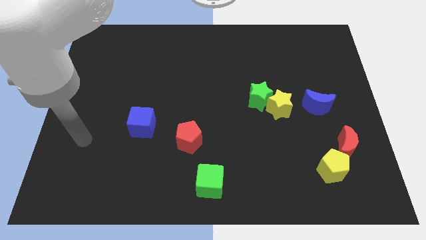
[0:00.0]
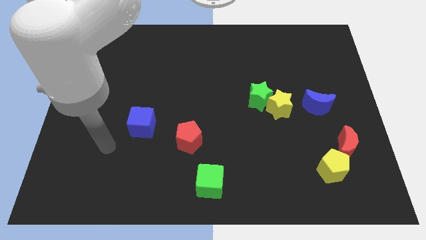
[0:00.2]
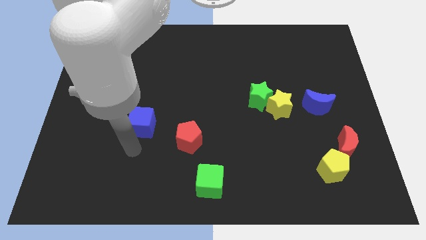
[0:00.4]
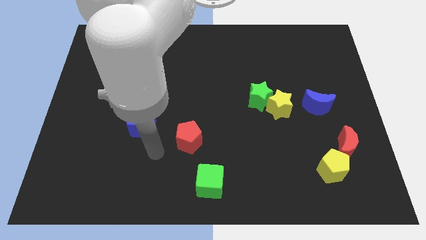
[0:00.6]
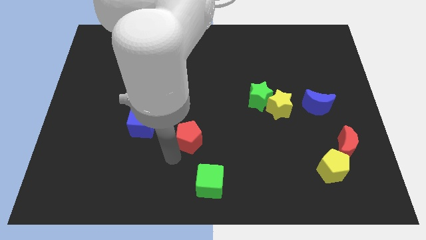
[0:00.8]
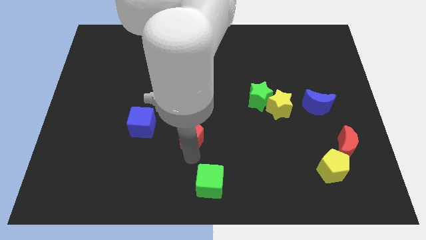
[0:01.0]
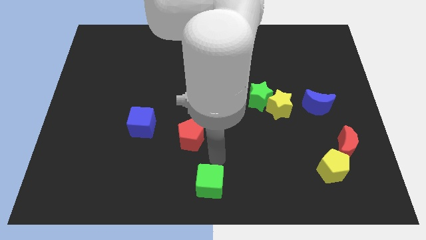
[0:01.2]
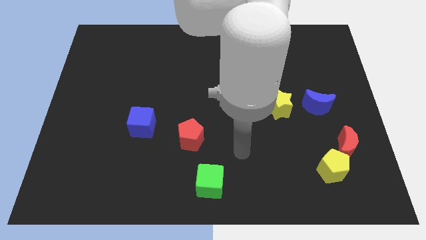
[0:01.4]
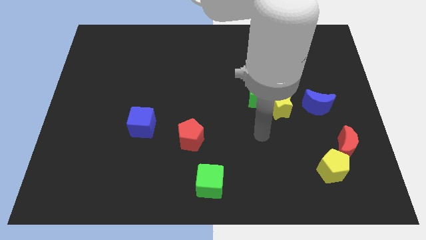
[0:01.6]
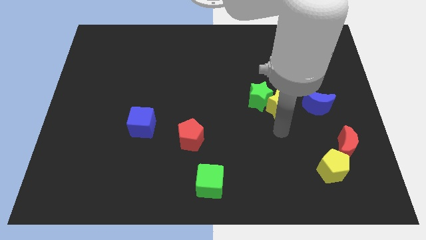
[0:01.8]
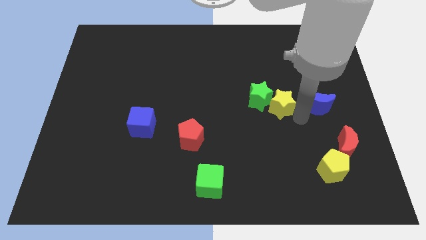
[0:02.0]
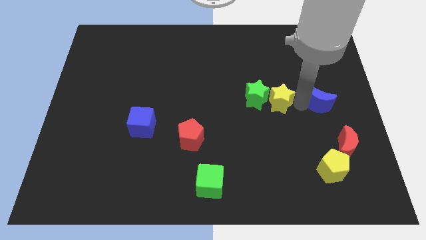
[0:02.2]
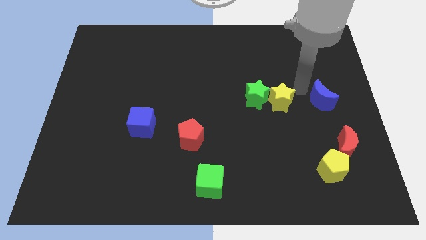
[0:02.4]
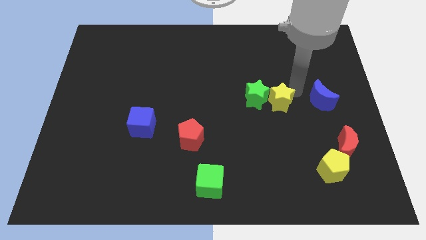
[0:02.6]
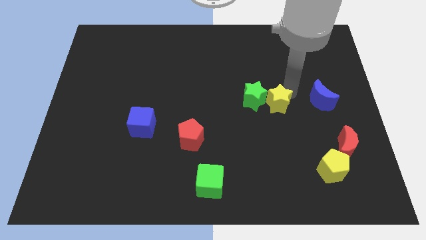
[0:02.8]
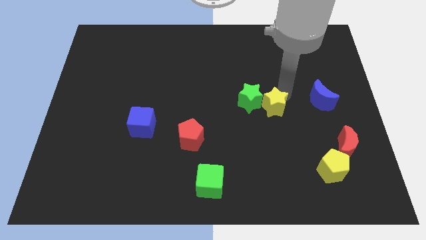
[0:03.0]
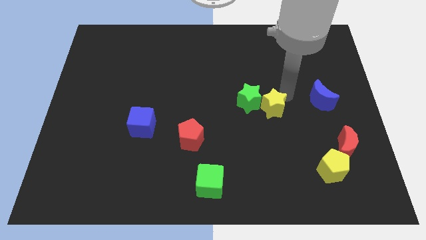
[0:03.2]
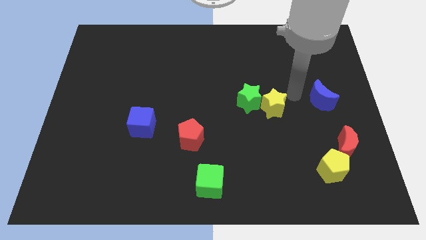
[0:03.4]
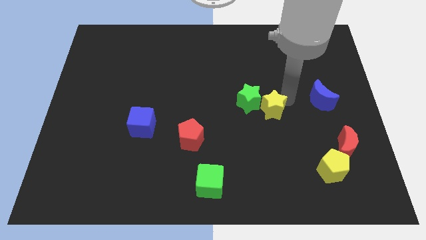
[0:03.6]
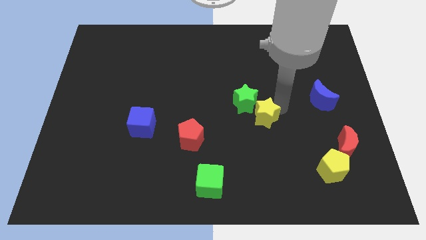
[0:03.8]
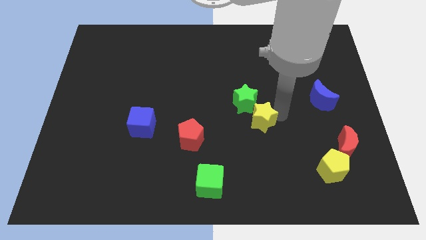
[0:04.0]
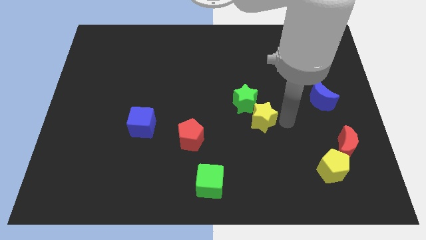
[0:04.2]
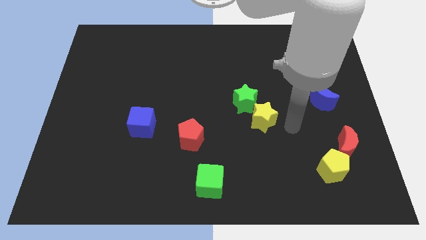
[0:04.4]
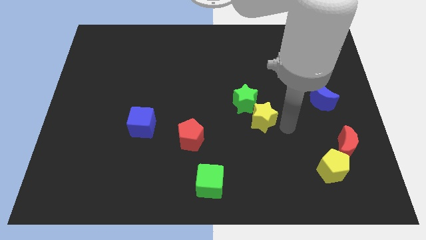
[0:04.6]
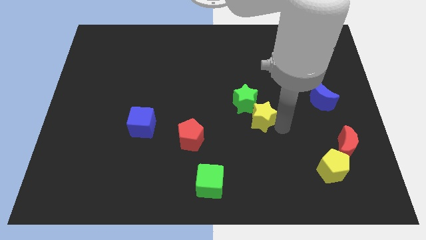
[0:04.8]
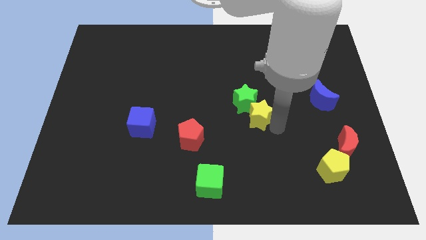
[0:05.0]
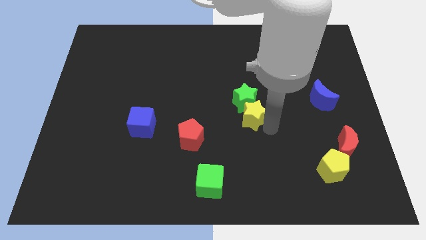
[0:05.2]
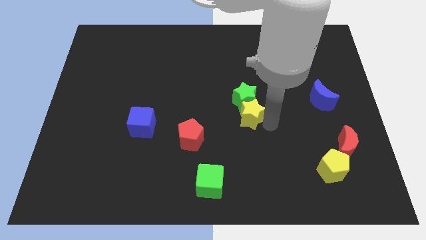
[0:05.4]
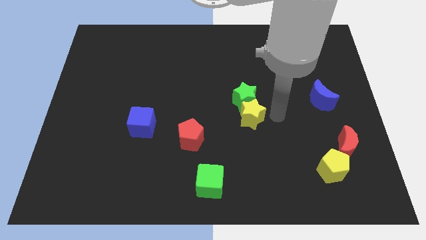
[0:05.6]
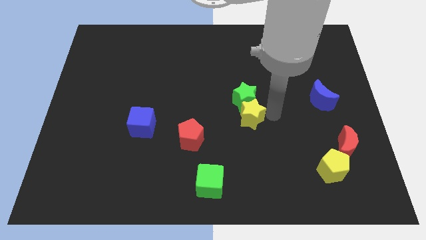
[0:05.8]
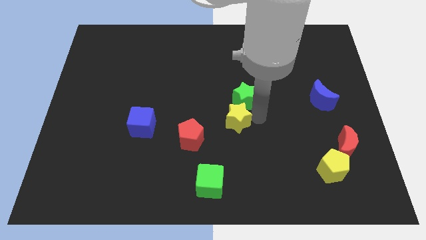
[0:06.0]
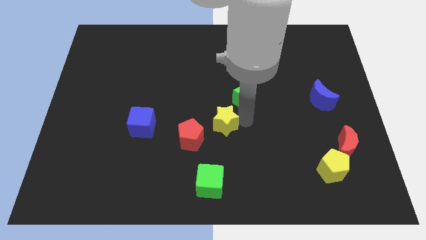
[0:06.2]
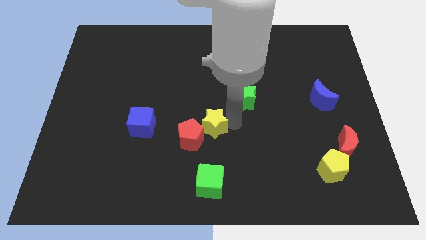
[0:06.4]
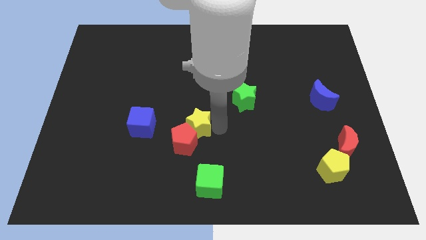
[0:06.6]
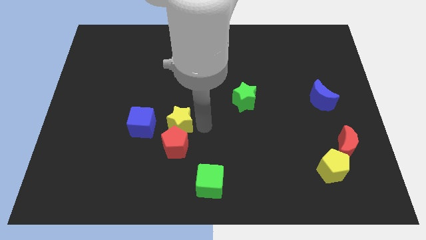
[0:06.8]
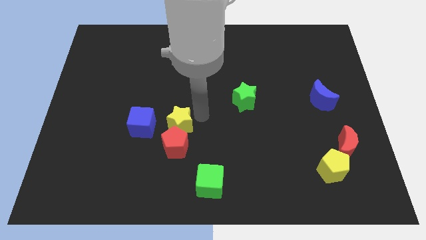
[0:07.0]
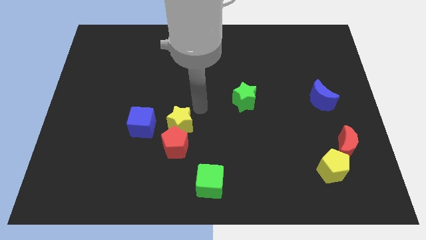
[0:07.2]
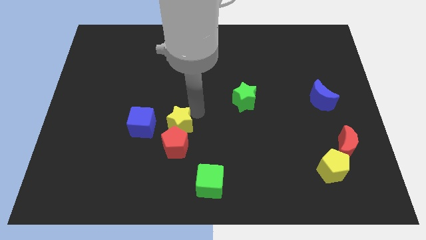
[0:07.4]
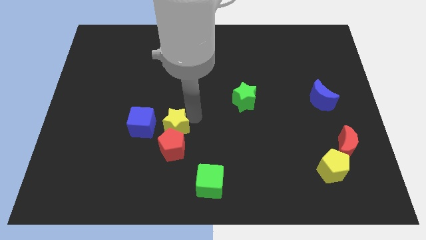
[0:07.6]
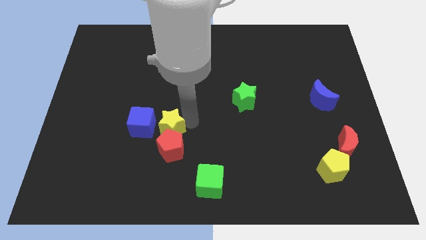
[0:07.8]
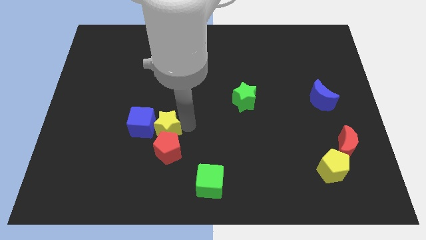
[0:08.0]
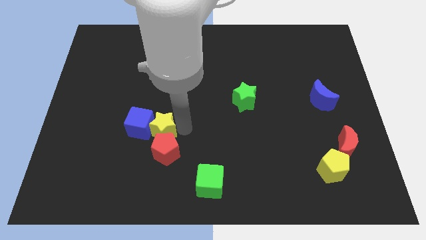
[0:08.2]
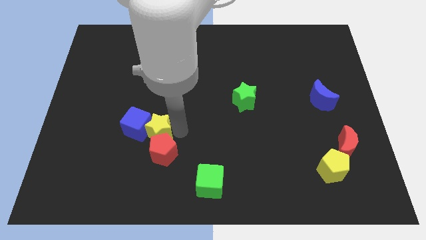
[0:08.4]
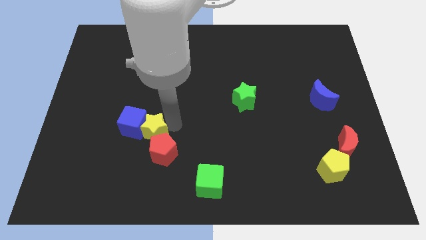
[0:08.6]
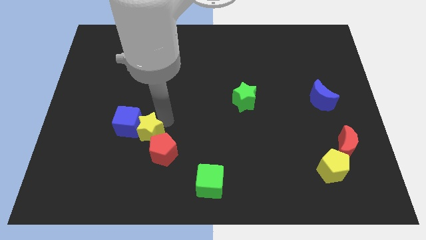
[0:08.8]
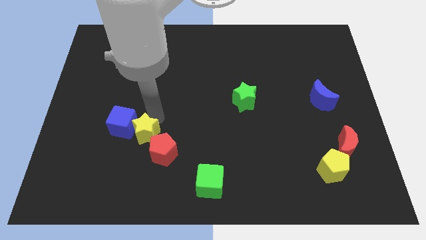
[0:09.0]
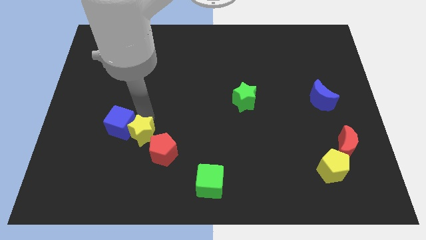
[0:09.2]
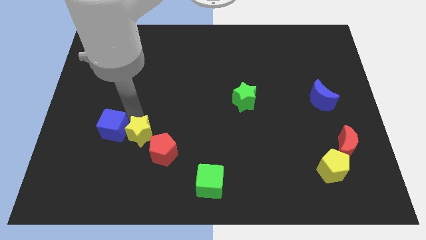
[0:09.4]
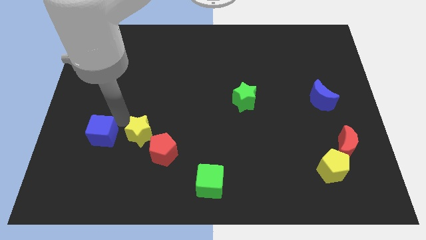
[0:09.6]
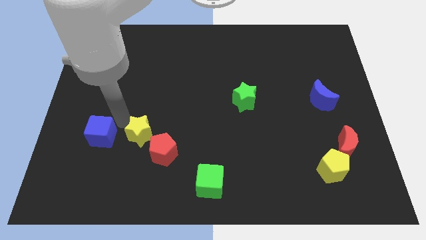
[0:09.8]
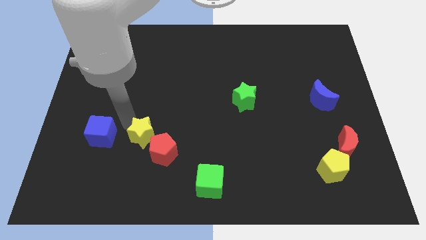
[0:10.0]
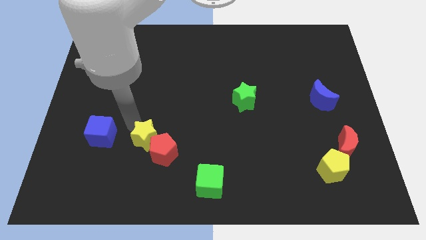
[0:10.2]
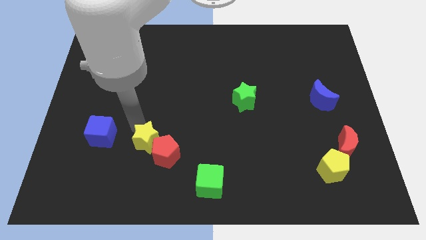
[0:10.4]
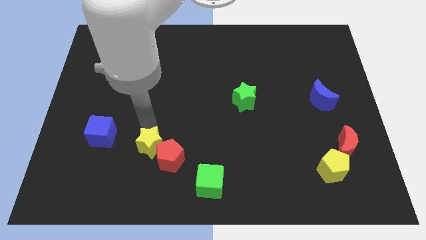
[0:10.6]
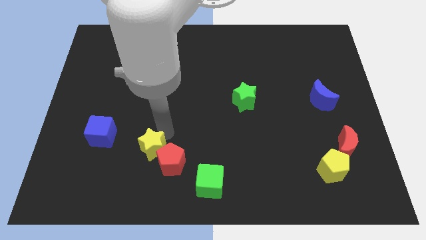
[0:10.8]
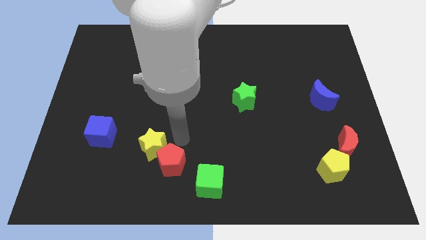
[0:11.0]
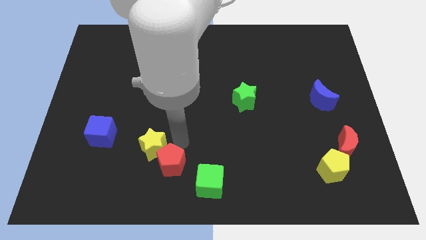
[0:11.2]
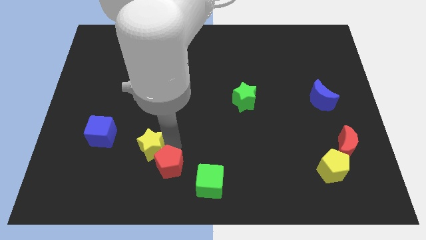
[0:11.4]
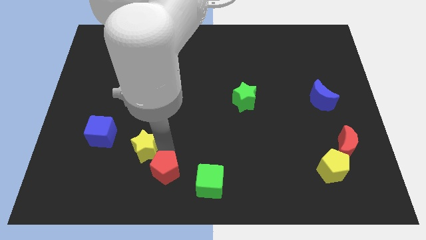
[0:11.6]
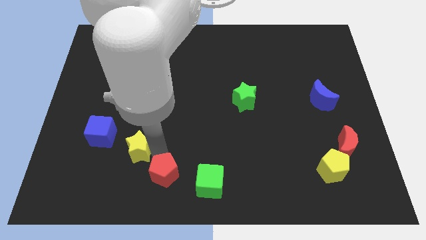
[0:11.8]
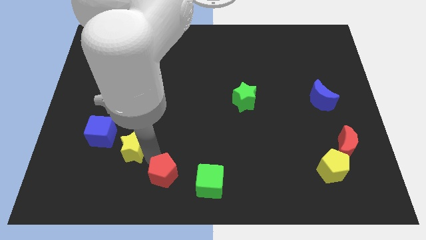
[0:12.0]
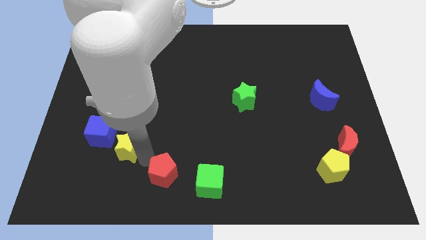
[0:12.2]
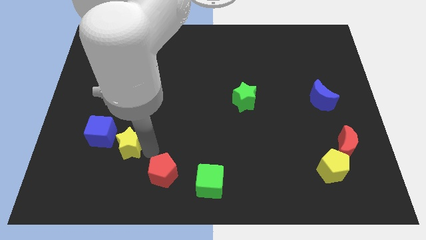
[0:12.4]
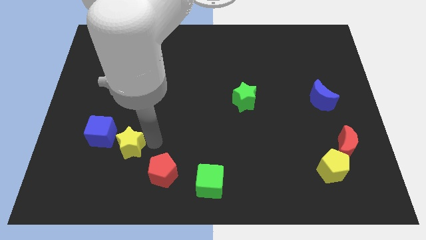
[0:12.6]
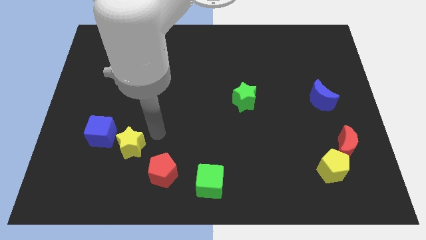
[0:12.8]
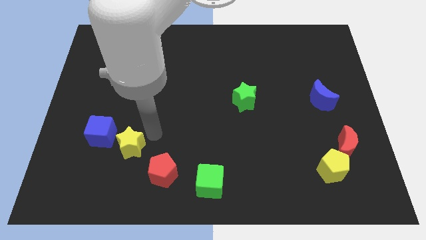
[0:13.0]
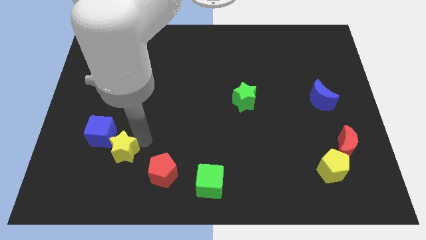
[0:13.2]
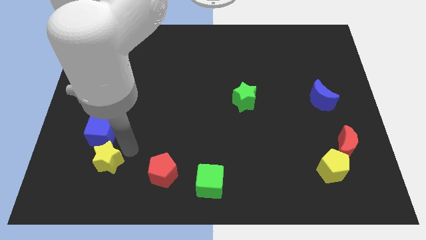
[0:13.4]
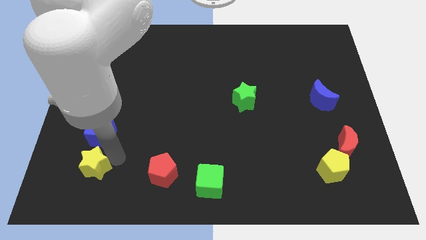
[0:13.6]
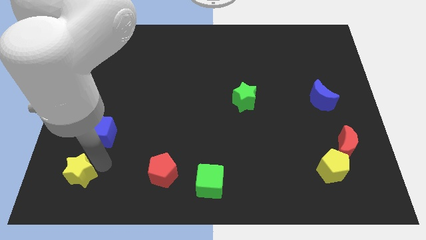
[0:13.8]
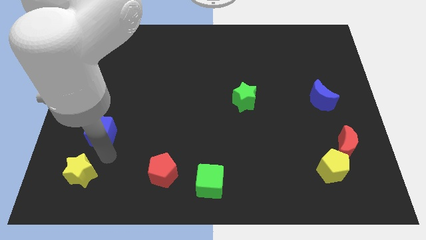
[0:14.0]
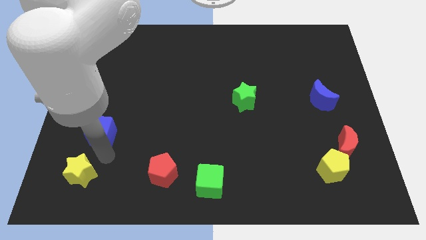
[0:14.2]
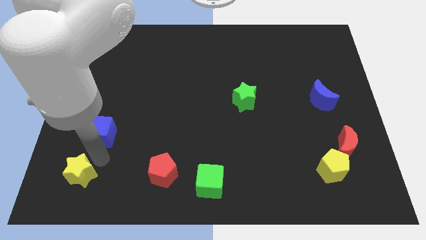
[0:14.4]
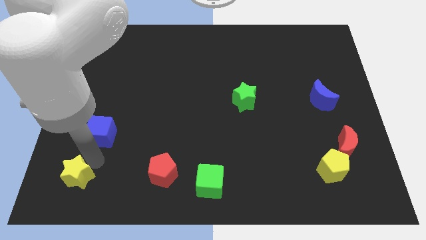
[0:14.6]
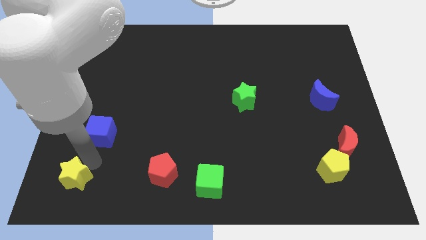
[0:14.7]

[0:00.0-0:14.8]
put the yellow star to the bottom left
